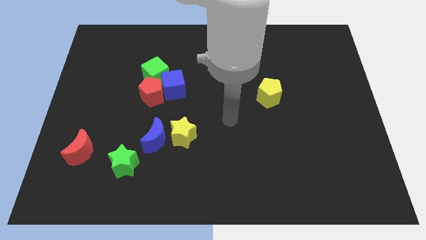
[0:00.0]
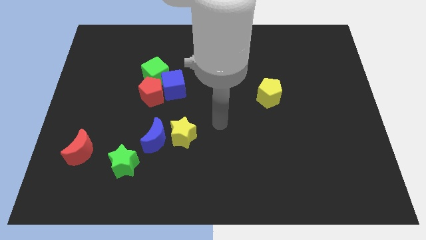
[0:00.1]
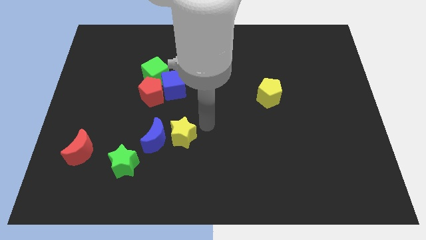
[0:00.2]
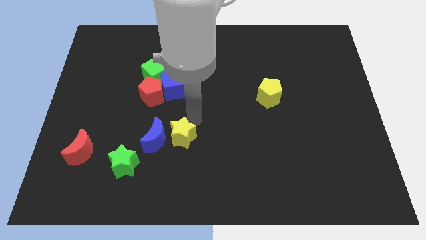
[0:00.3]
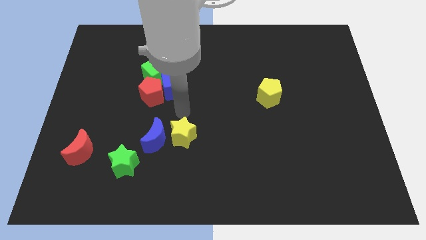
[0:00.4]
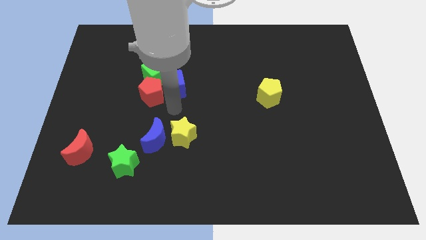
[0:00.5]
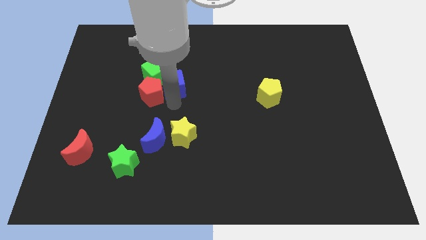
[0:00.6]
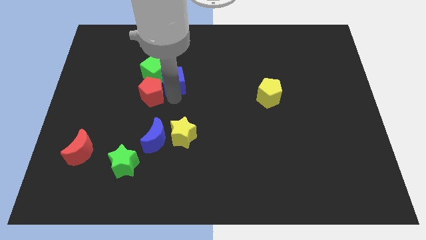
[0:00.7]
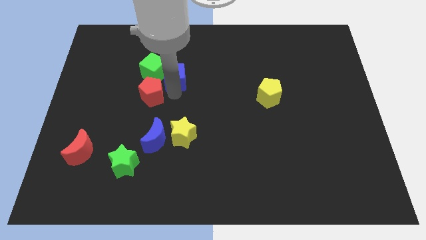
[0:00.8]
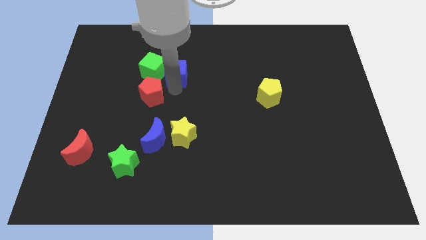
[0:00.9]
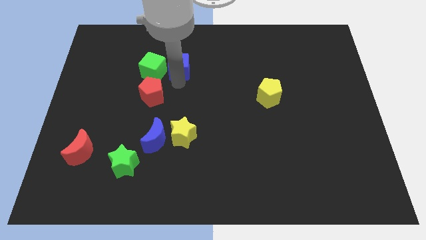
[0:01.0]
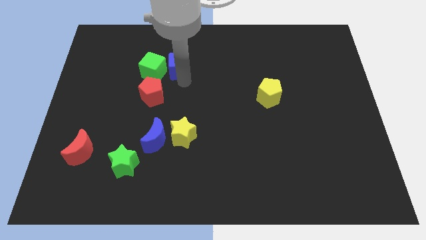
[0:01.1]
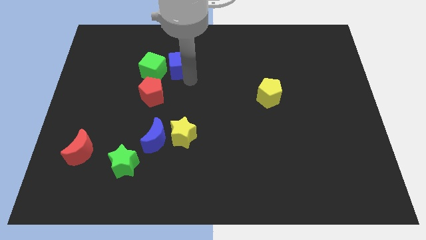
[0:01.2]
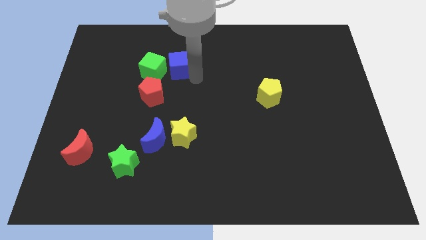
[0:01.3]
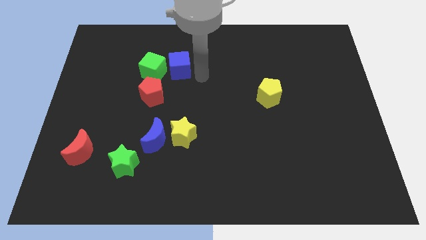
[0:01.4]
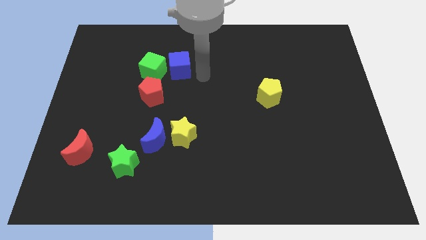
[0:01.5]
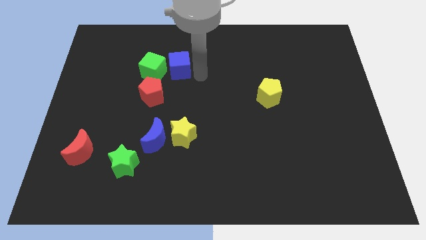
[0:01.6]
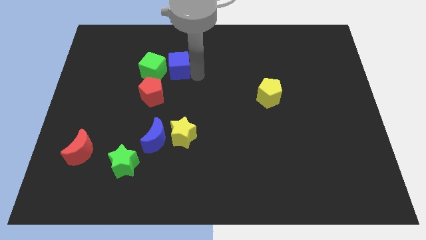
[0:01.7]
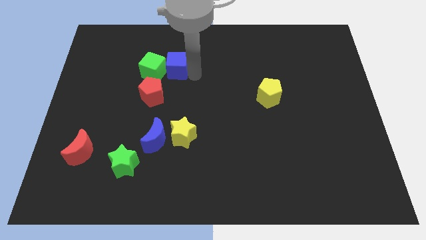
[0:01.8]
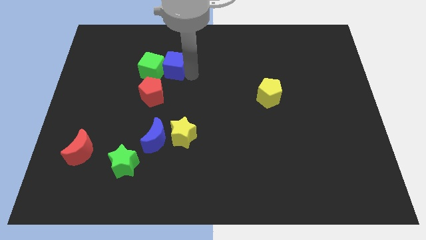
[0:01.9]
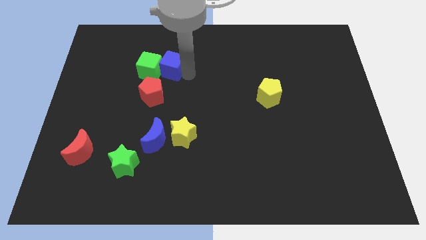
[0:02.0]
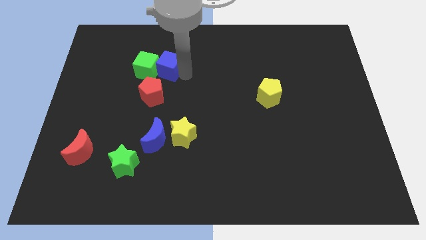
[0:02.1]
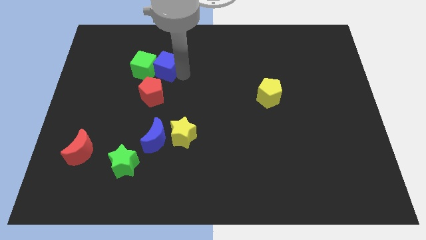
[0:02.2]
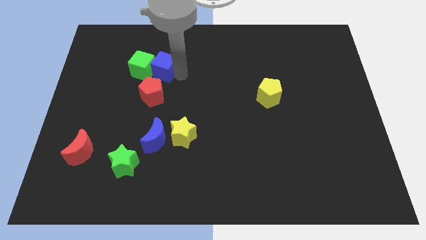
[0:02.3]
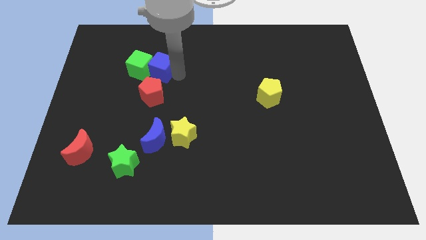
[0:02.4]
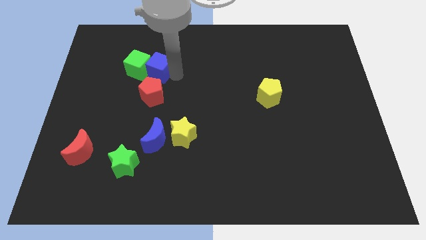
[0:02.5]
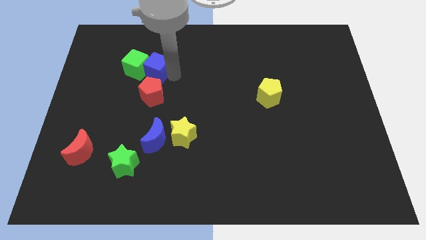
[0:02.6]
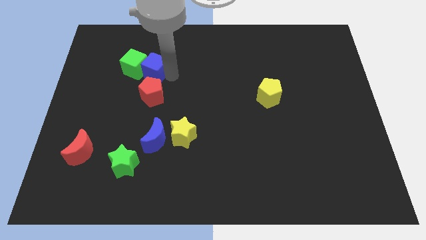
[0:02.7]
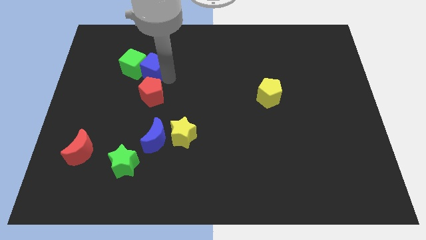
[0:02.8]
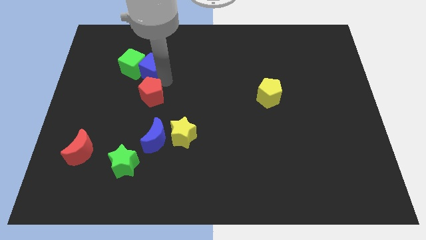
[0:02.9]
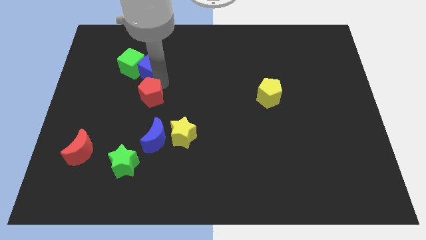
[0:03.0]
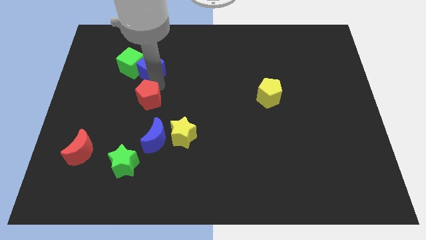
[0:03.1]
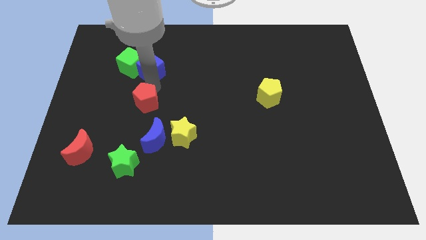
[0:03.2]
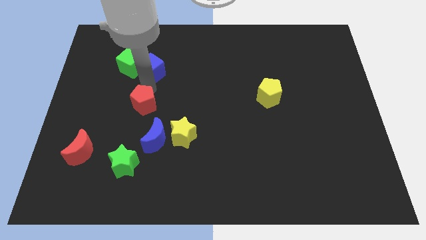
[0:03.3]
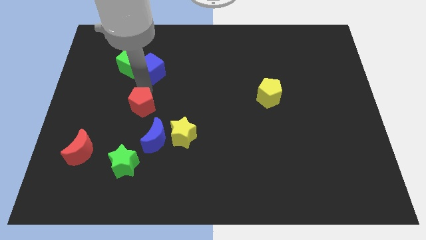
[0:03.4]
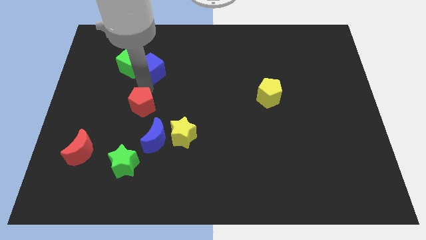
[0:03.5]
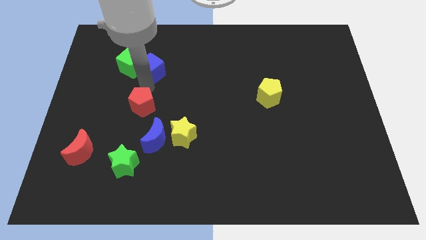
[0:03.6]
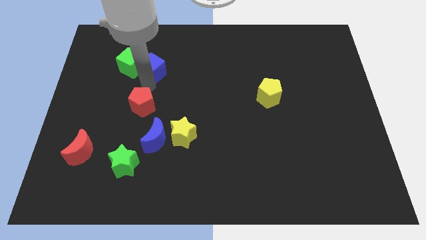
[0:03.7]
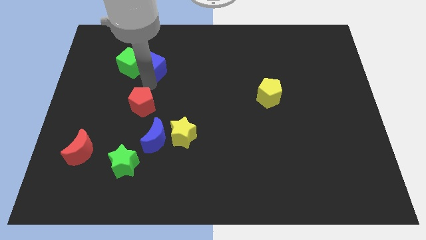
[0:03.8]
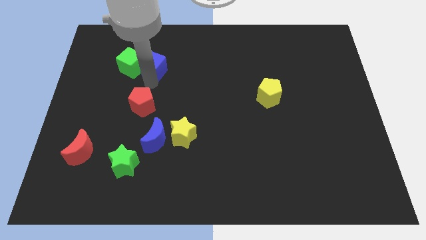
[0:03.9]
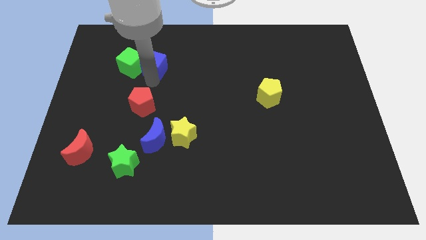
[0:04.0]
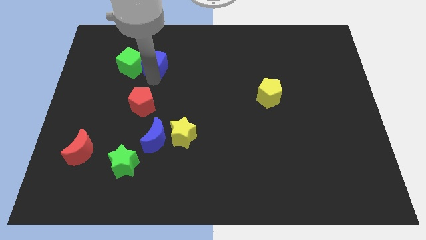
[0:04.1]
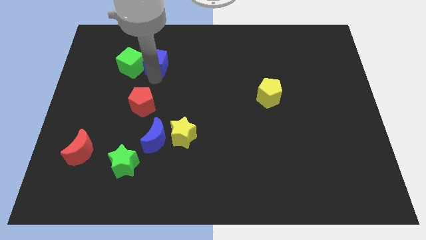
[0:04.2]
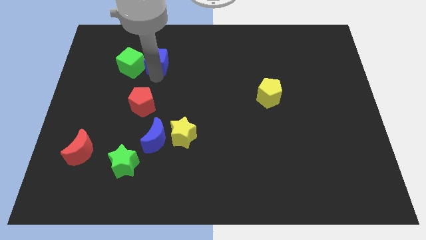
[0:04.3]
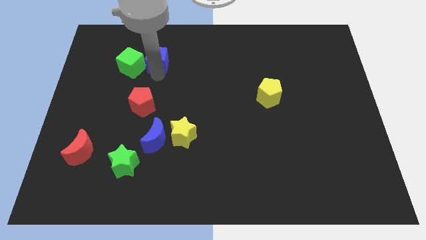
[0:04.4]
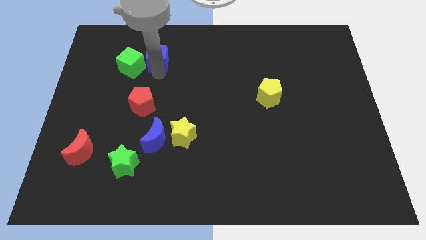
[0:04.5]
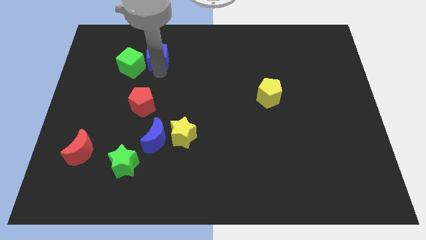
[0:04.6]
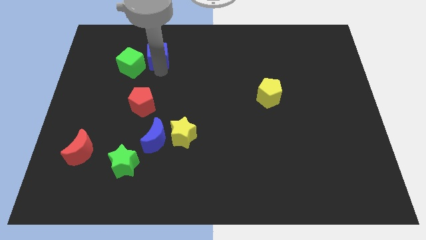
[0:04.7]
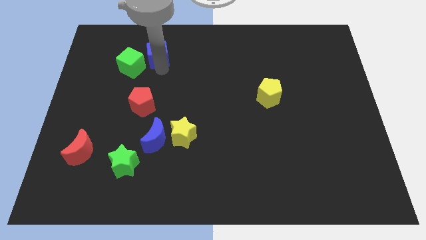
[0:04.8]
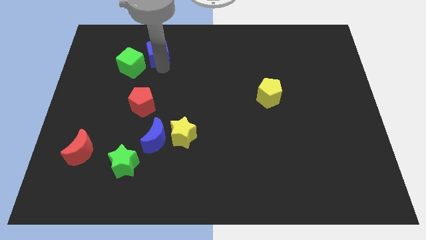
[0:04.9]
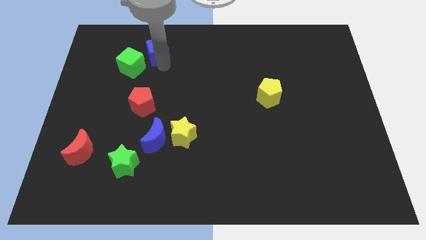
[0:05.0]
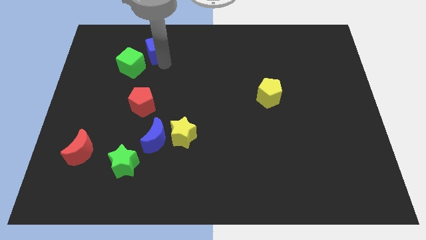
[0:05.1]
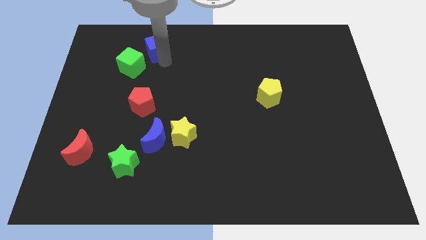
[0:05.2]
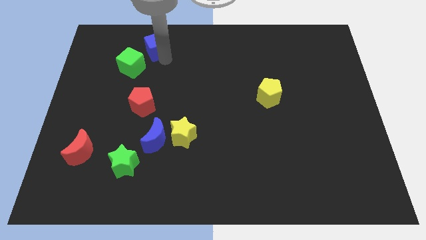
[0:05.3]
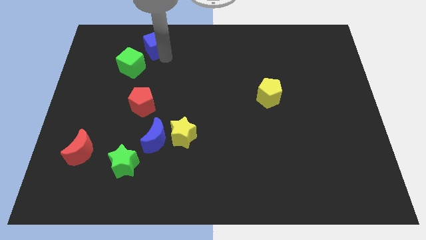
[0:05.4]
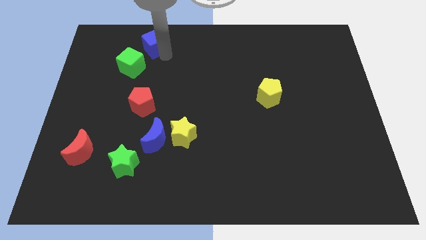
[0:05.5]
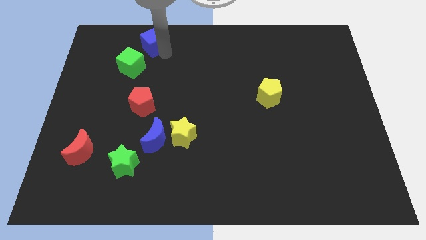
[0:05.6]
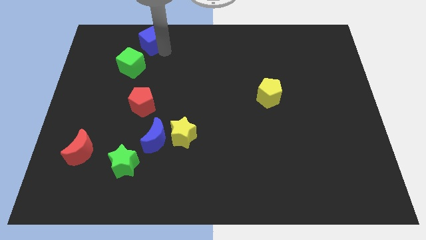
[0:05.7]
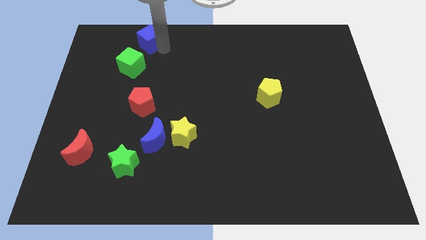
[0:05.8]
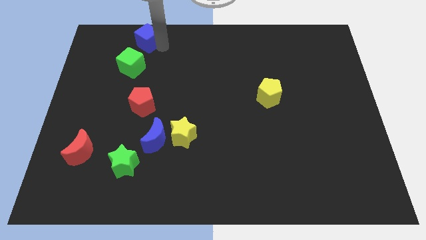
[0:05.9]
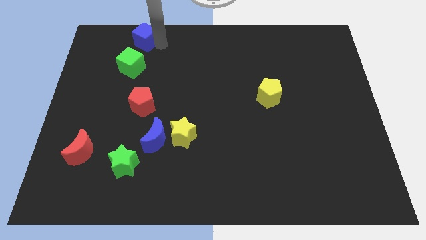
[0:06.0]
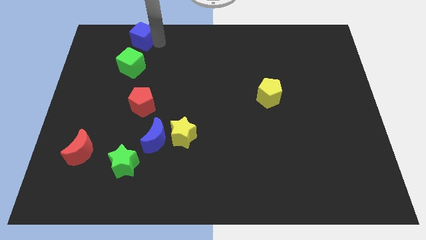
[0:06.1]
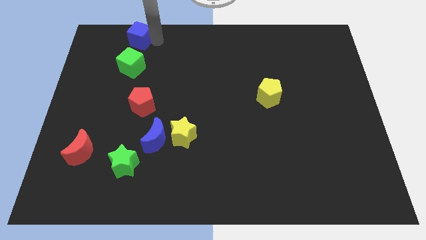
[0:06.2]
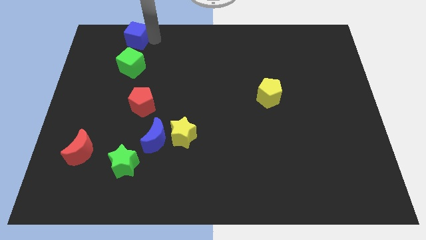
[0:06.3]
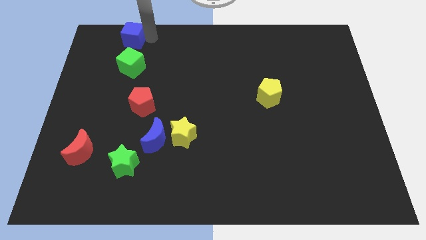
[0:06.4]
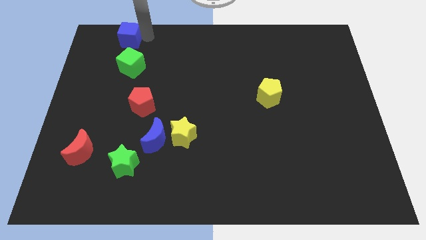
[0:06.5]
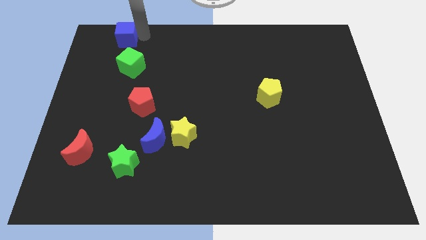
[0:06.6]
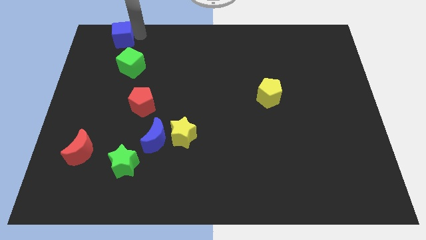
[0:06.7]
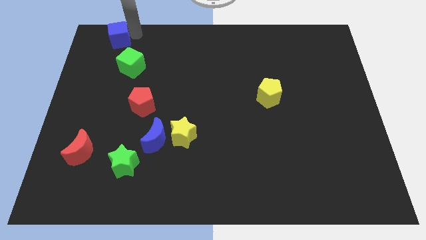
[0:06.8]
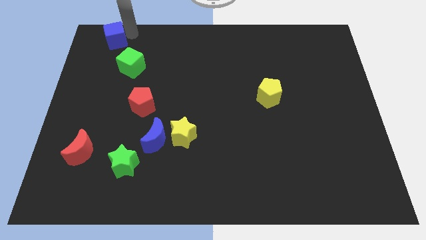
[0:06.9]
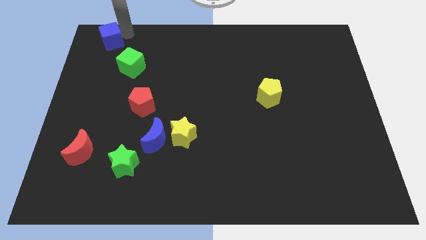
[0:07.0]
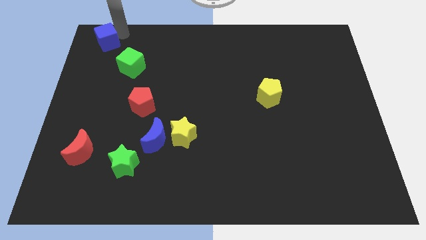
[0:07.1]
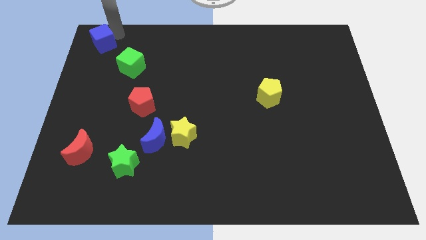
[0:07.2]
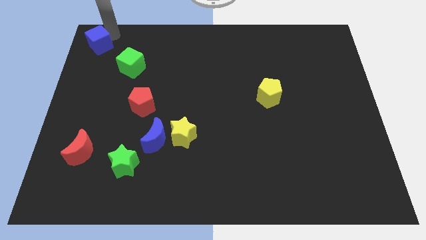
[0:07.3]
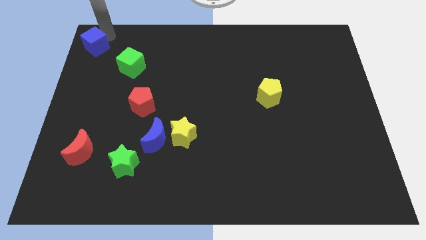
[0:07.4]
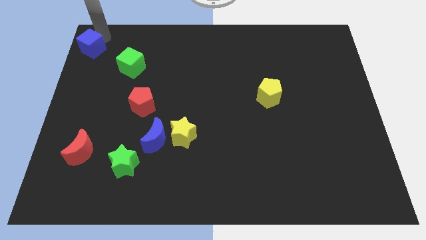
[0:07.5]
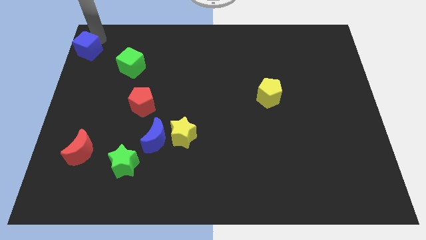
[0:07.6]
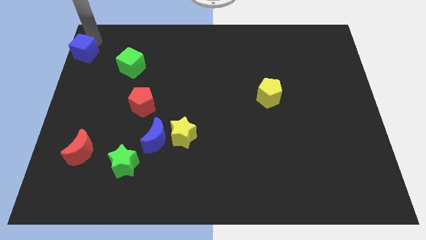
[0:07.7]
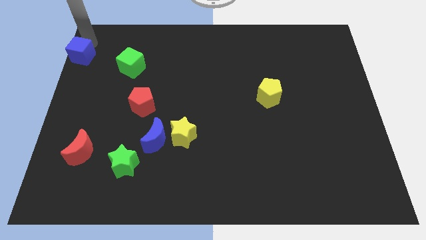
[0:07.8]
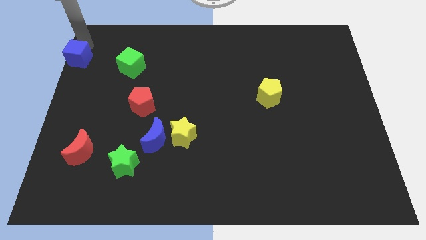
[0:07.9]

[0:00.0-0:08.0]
slightly slide the blue cube to the left
